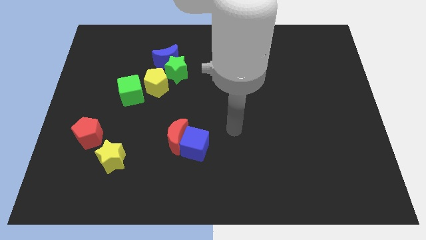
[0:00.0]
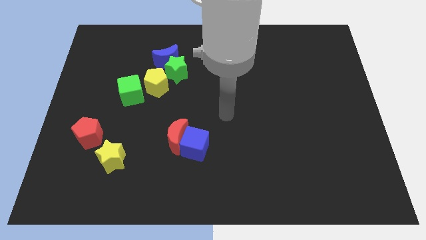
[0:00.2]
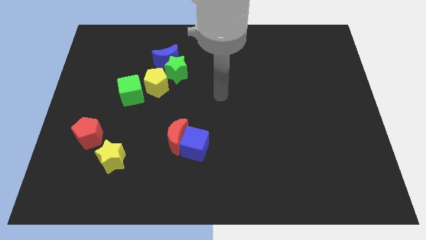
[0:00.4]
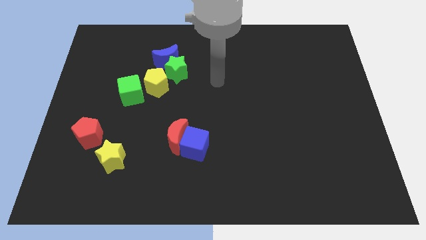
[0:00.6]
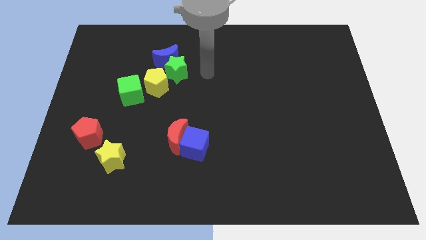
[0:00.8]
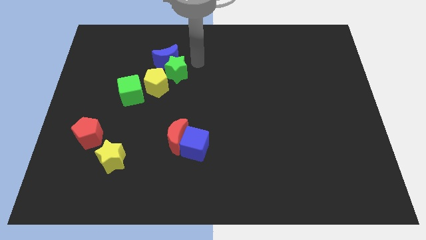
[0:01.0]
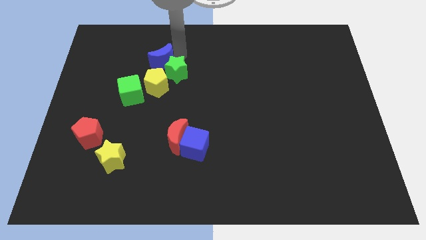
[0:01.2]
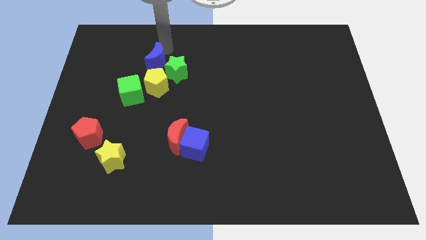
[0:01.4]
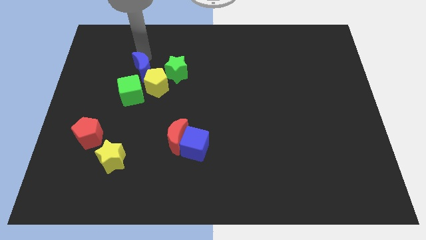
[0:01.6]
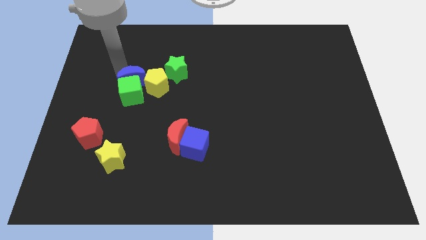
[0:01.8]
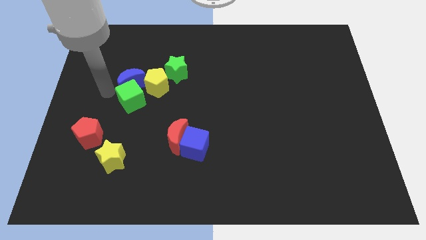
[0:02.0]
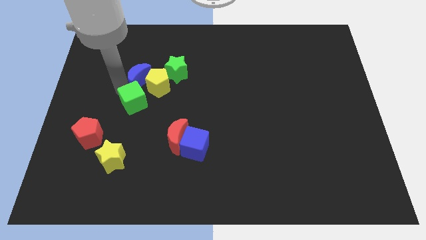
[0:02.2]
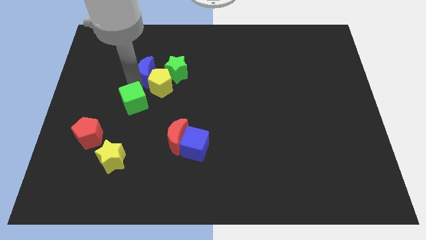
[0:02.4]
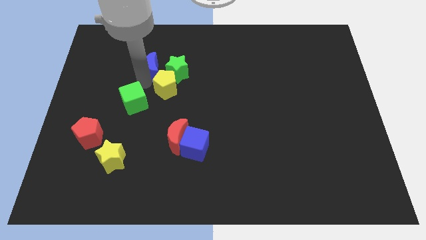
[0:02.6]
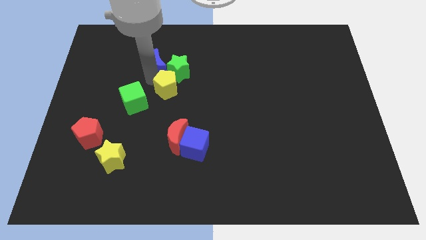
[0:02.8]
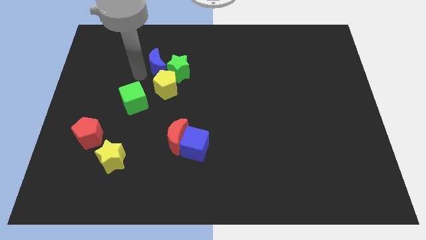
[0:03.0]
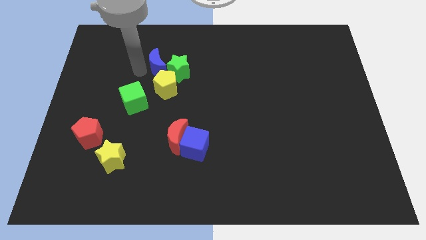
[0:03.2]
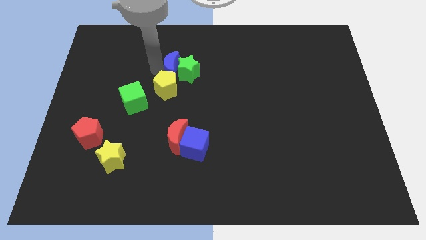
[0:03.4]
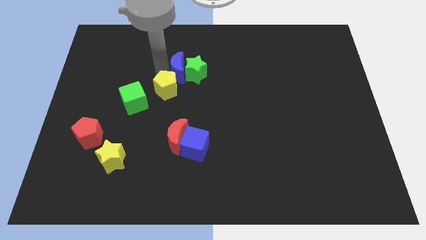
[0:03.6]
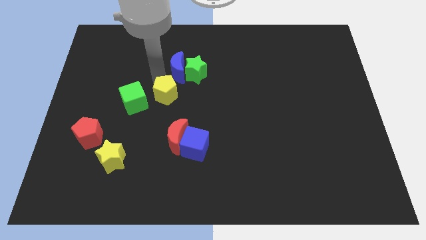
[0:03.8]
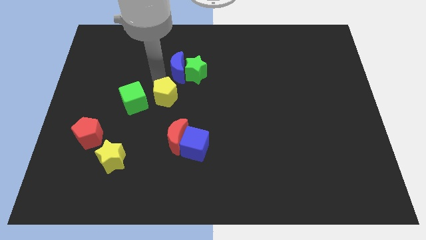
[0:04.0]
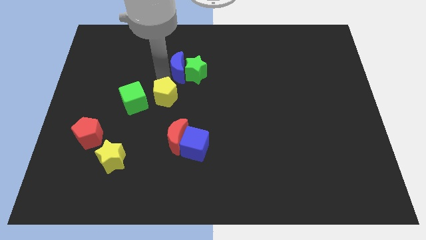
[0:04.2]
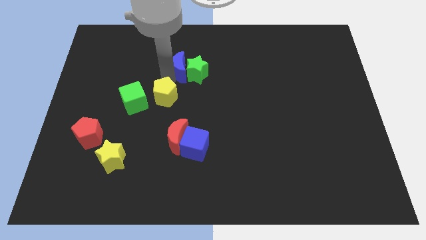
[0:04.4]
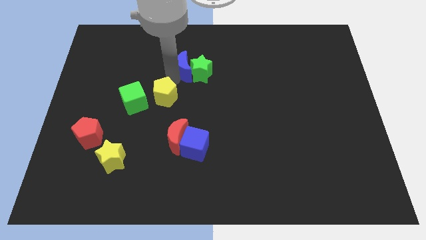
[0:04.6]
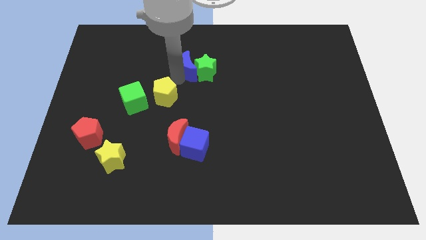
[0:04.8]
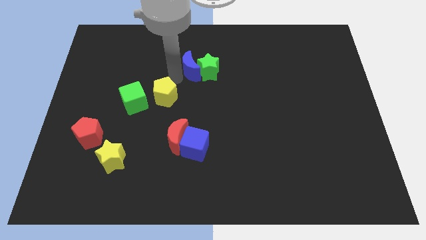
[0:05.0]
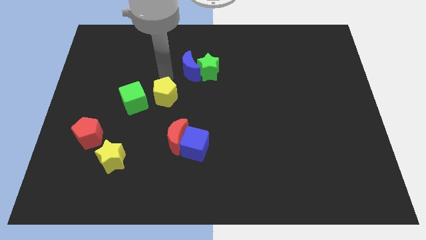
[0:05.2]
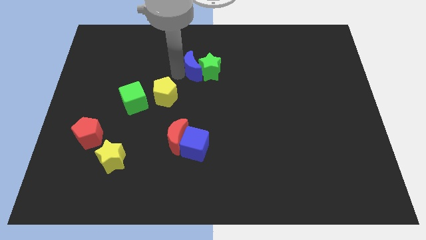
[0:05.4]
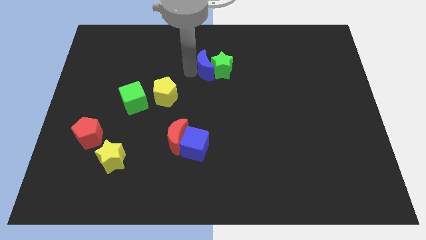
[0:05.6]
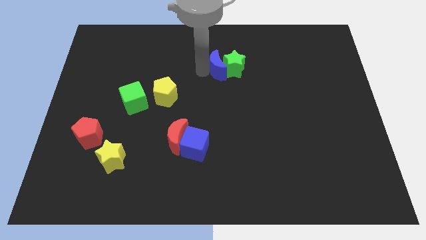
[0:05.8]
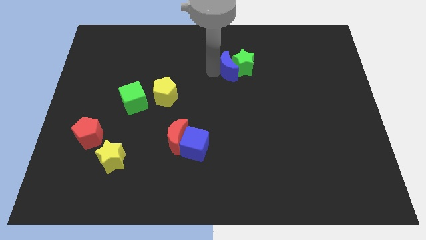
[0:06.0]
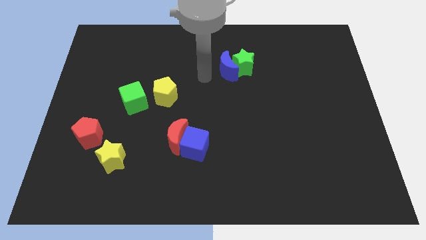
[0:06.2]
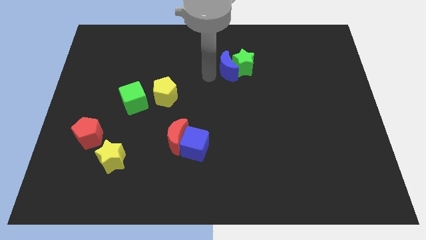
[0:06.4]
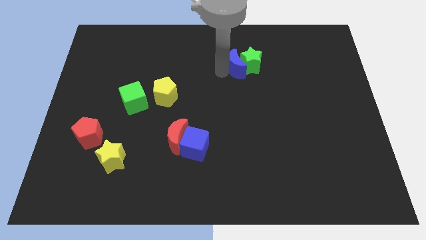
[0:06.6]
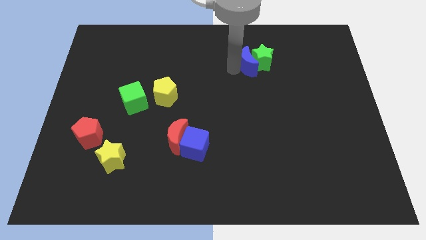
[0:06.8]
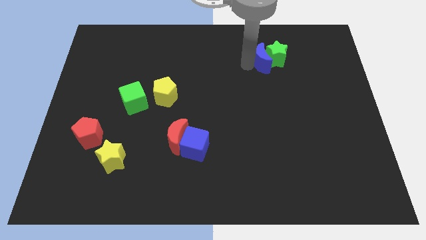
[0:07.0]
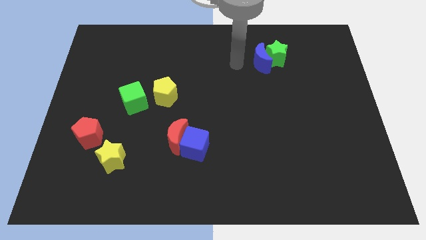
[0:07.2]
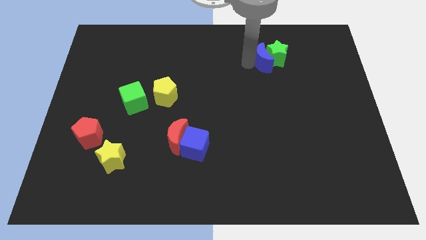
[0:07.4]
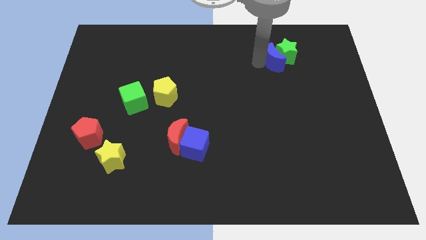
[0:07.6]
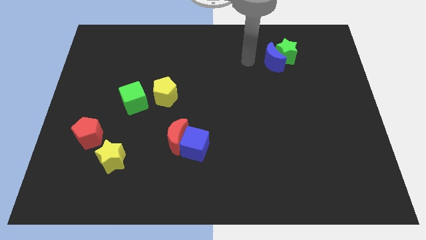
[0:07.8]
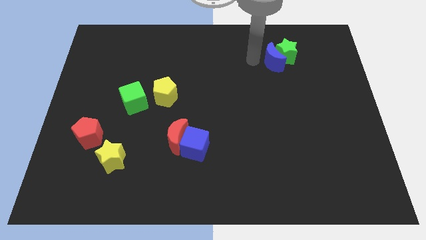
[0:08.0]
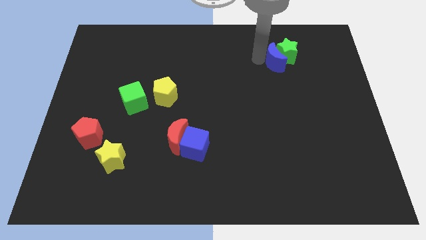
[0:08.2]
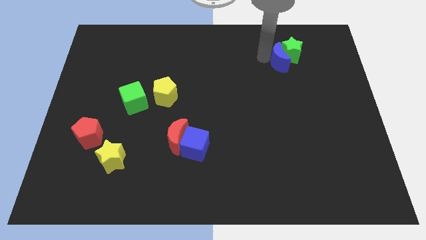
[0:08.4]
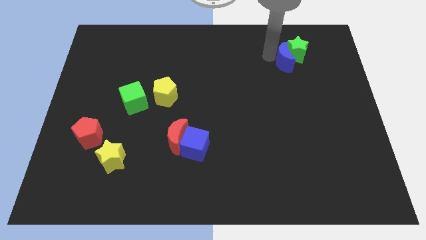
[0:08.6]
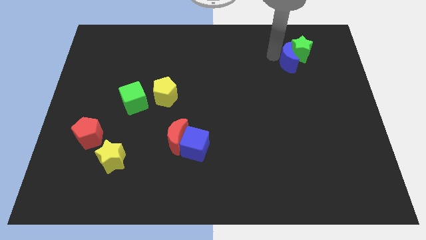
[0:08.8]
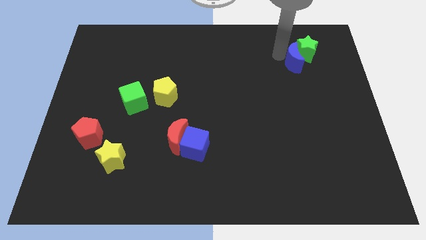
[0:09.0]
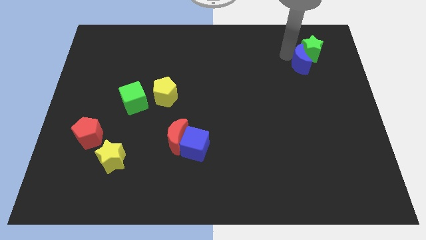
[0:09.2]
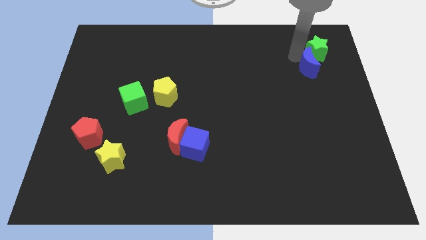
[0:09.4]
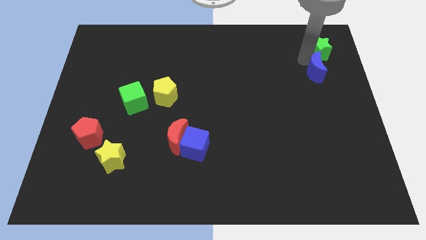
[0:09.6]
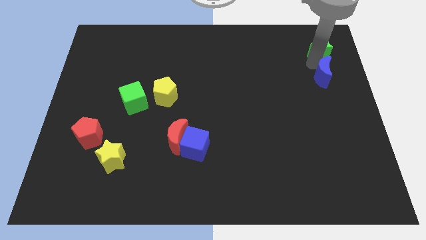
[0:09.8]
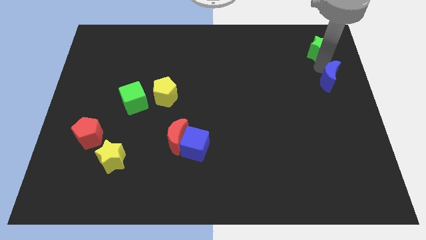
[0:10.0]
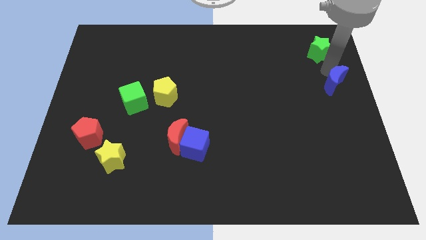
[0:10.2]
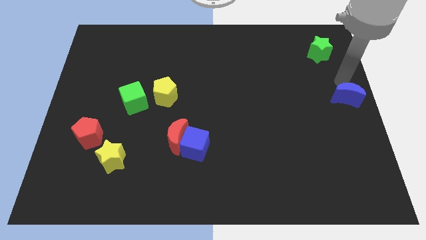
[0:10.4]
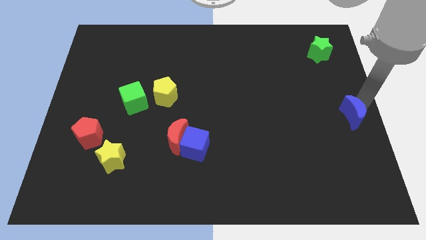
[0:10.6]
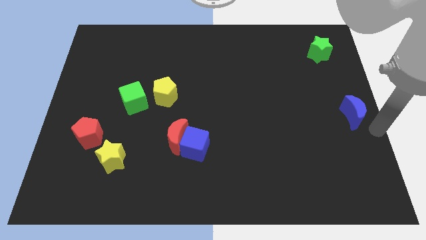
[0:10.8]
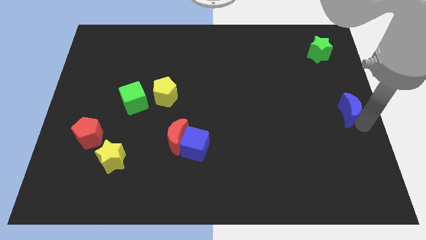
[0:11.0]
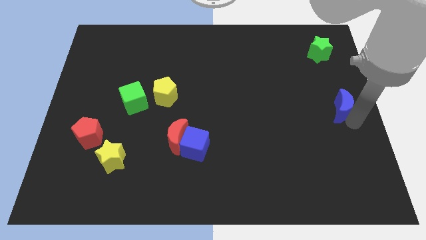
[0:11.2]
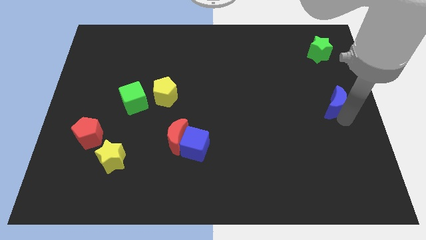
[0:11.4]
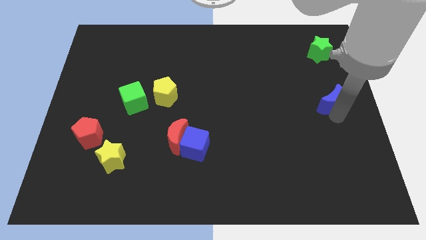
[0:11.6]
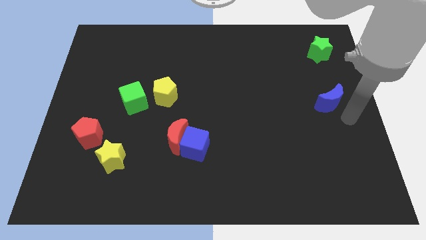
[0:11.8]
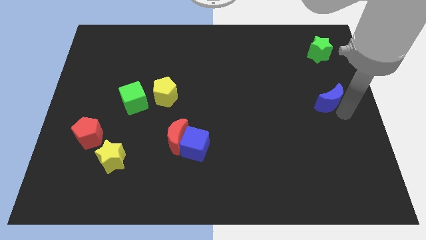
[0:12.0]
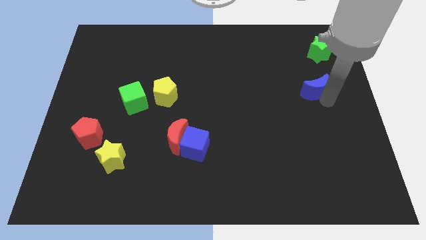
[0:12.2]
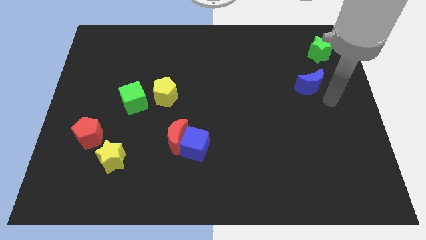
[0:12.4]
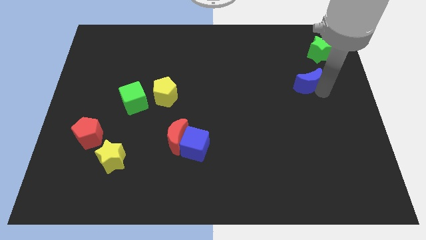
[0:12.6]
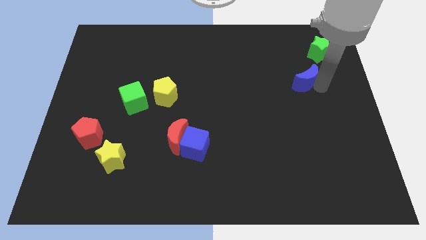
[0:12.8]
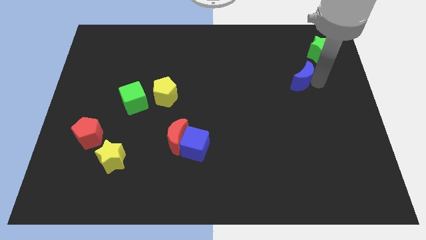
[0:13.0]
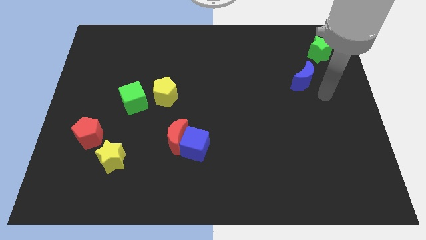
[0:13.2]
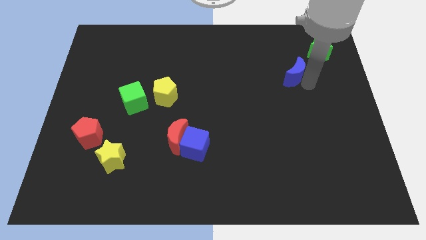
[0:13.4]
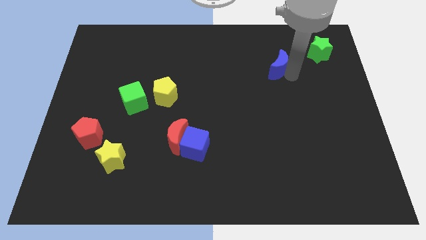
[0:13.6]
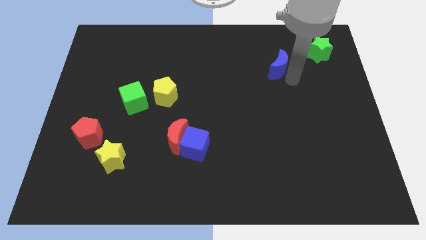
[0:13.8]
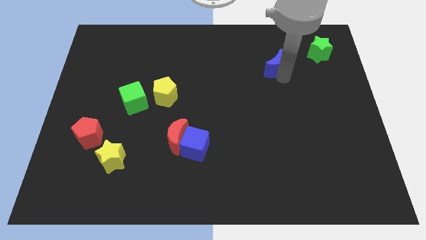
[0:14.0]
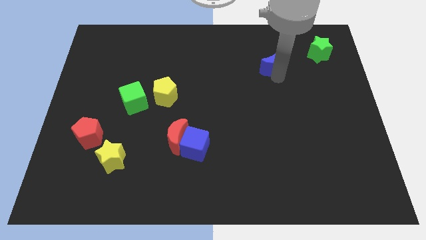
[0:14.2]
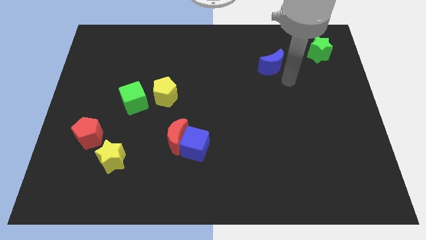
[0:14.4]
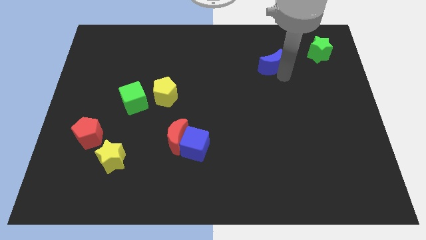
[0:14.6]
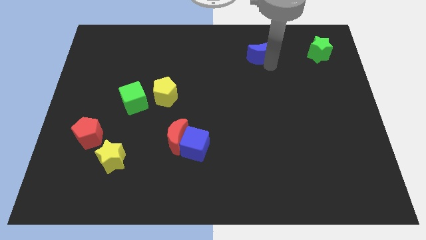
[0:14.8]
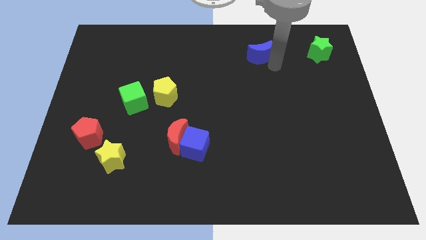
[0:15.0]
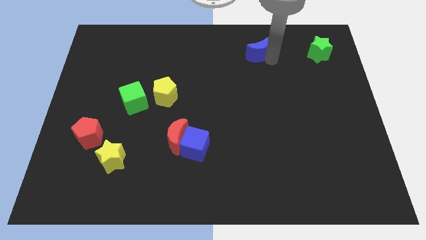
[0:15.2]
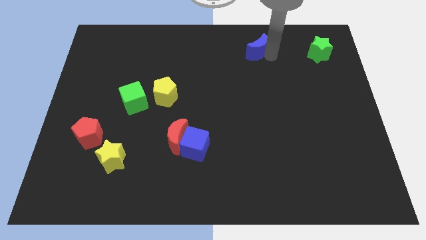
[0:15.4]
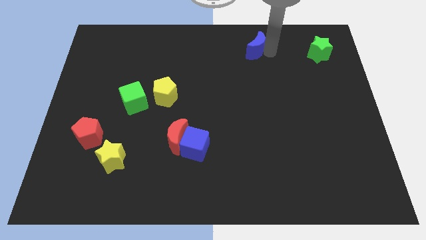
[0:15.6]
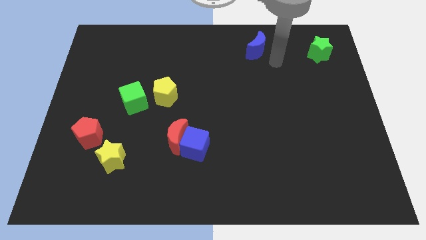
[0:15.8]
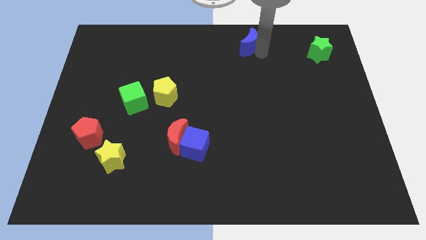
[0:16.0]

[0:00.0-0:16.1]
put the blue moon to the top
